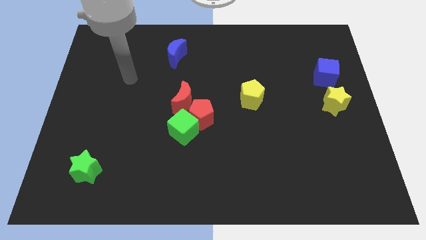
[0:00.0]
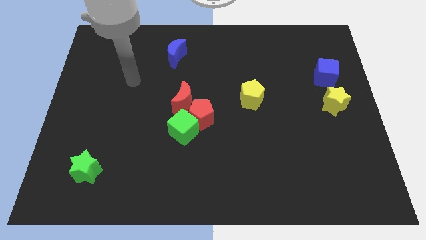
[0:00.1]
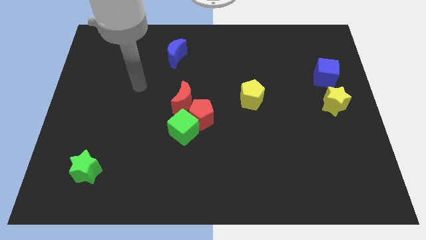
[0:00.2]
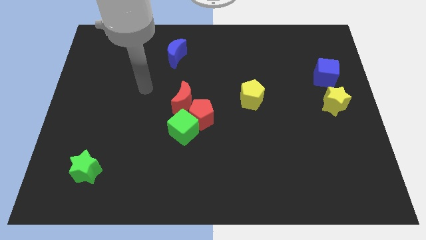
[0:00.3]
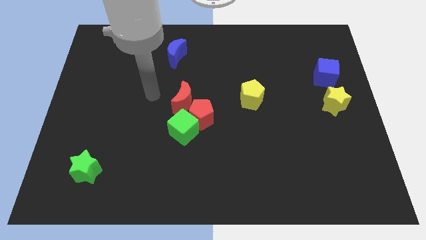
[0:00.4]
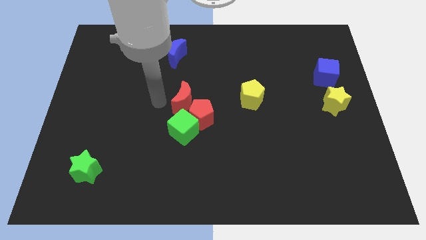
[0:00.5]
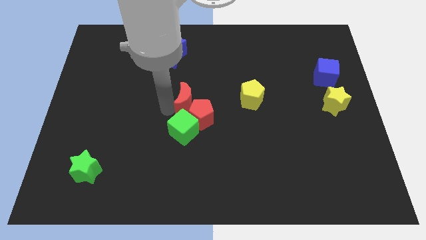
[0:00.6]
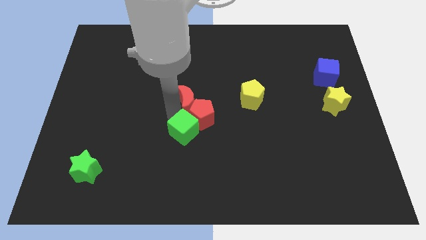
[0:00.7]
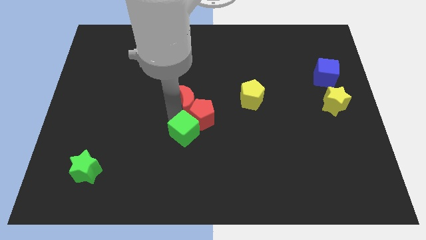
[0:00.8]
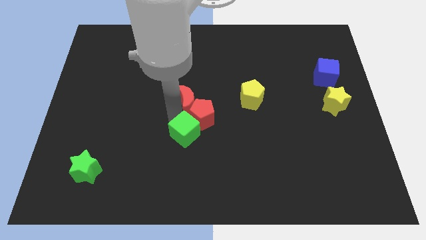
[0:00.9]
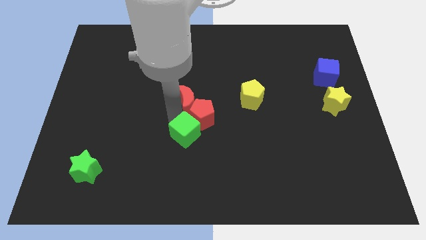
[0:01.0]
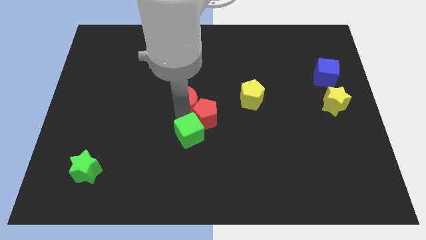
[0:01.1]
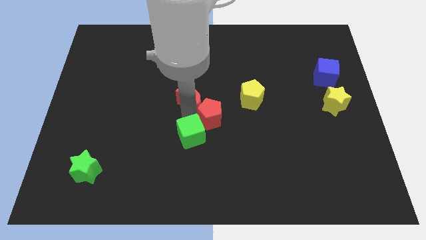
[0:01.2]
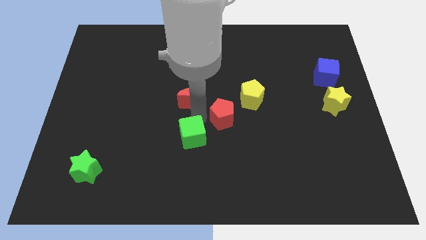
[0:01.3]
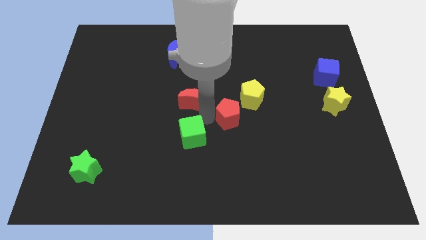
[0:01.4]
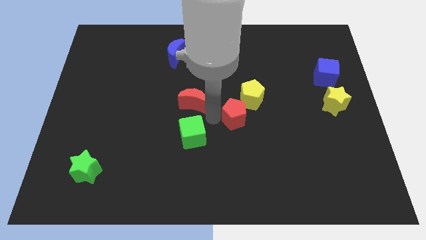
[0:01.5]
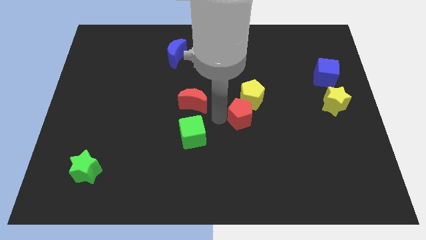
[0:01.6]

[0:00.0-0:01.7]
pull the red pentagon apart from the green cube and red moon

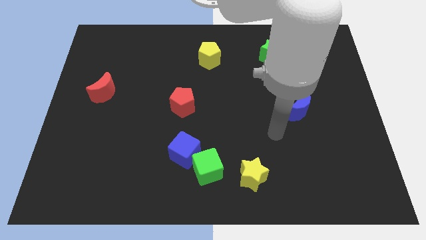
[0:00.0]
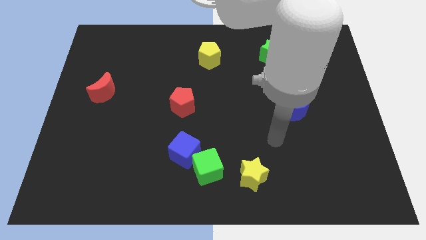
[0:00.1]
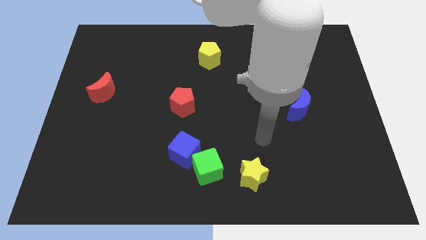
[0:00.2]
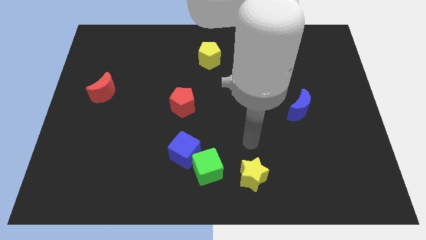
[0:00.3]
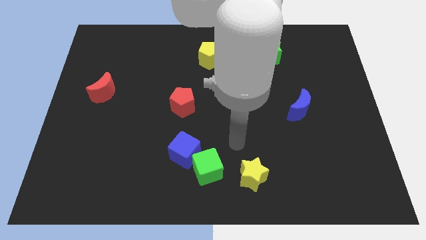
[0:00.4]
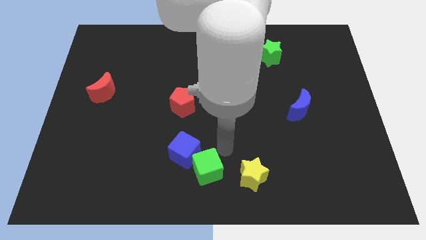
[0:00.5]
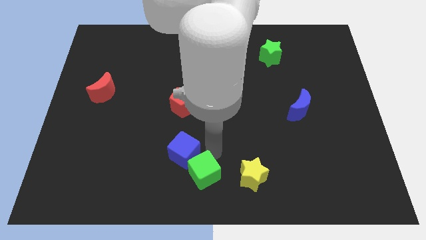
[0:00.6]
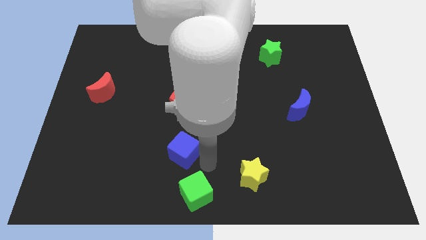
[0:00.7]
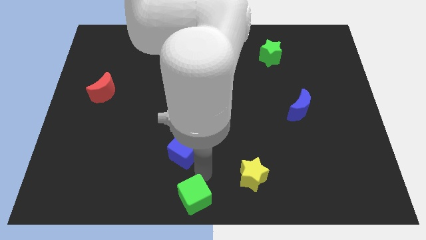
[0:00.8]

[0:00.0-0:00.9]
pull the blue cube apart from the green cube

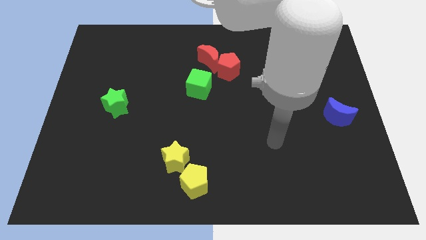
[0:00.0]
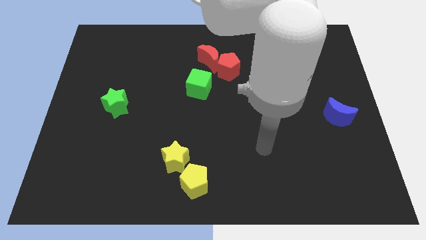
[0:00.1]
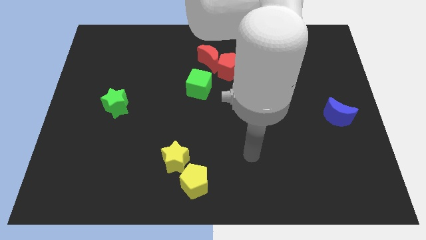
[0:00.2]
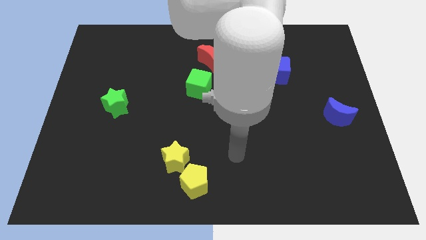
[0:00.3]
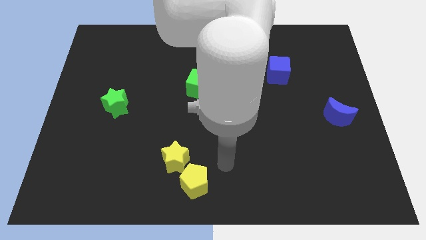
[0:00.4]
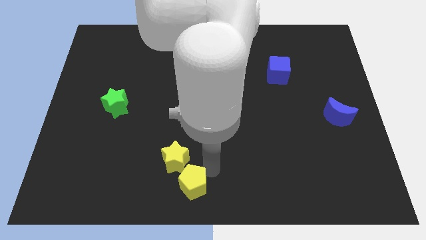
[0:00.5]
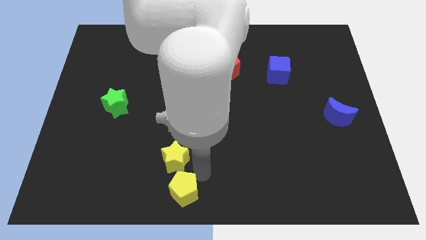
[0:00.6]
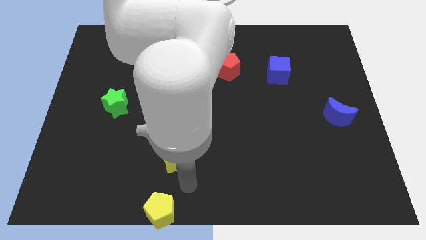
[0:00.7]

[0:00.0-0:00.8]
pull the yellow star apart from the yellow pentagon

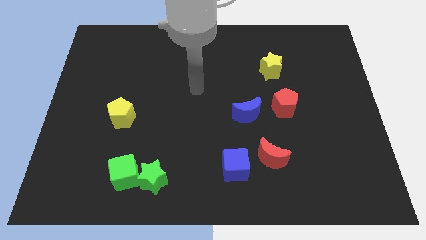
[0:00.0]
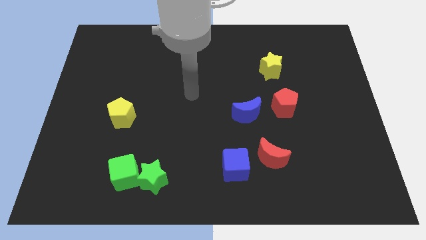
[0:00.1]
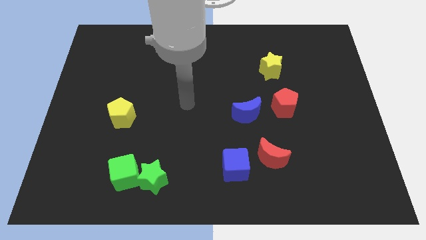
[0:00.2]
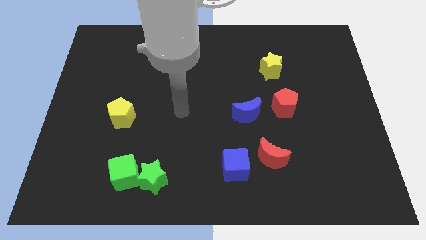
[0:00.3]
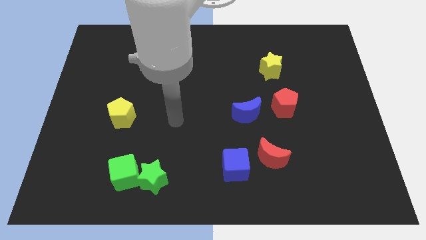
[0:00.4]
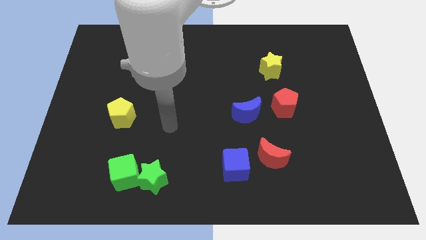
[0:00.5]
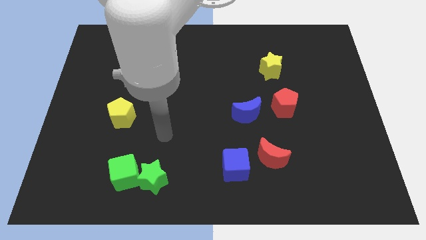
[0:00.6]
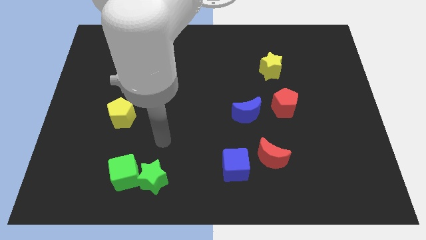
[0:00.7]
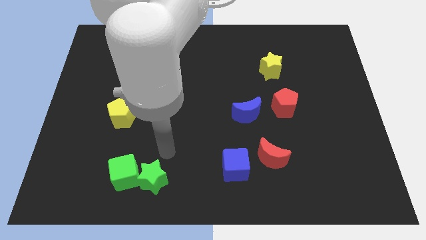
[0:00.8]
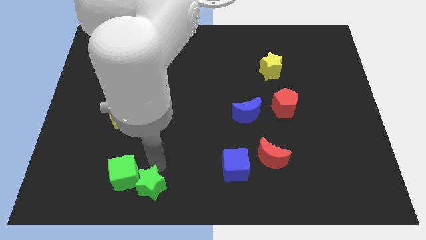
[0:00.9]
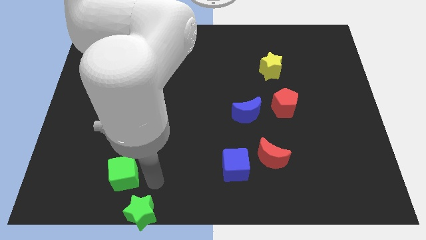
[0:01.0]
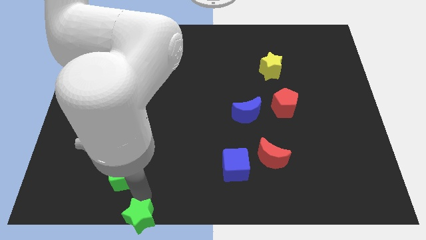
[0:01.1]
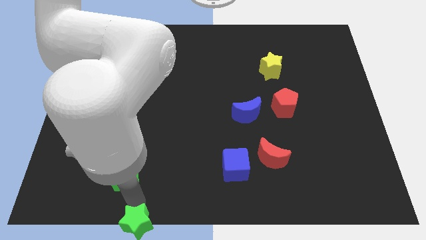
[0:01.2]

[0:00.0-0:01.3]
pull the green cube apart from the green star

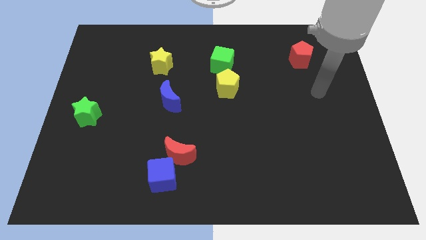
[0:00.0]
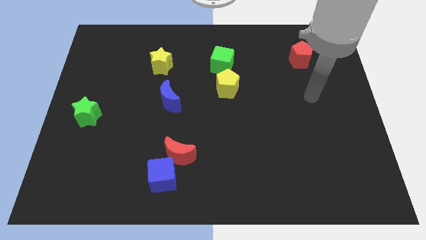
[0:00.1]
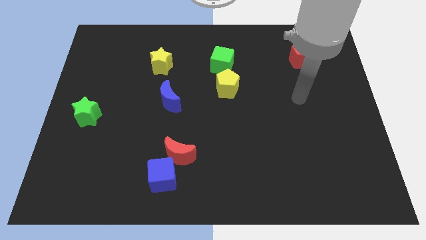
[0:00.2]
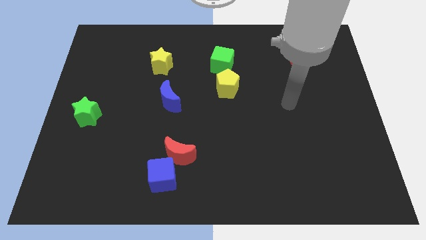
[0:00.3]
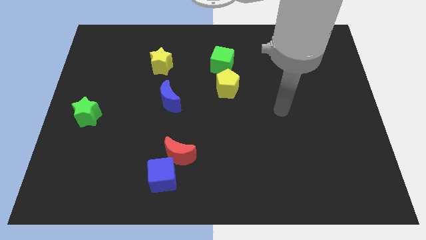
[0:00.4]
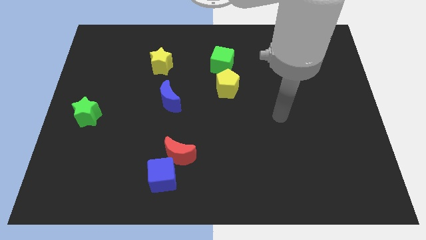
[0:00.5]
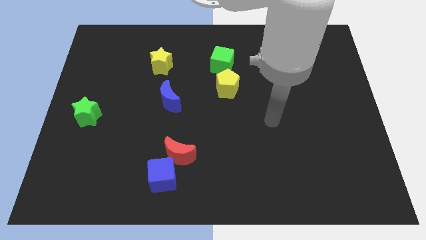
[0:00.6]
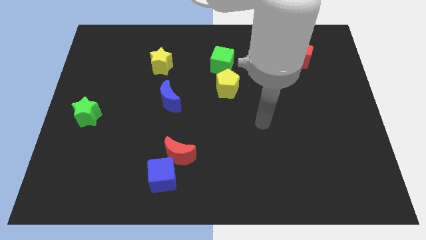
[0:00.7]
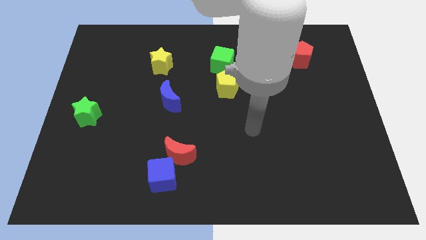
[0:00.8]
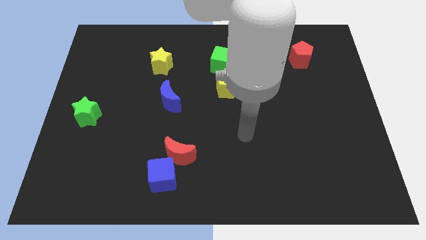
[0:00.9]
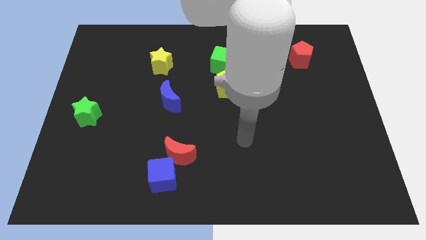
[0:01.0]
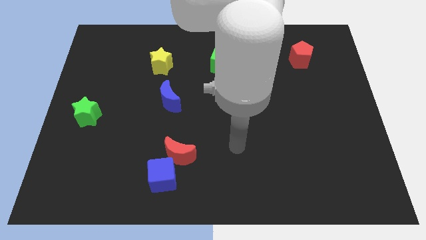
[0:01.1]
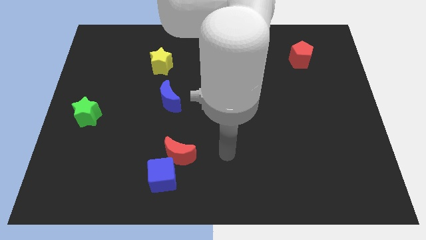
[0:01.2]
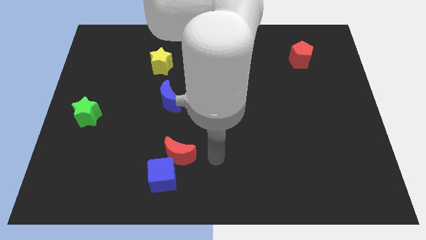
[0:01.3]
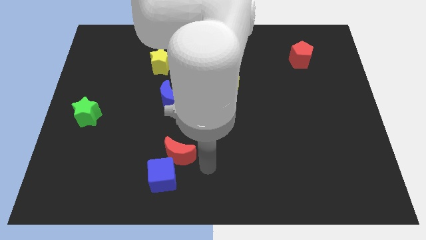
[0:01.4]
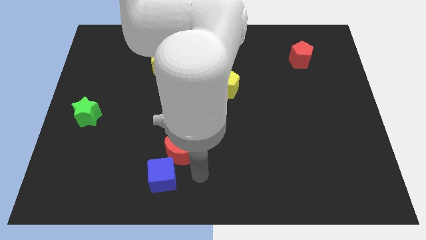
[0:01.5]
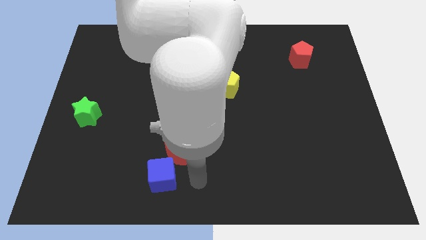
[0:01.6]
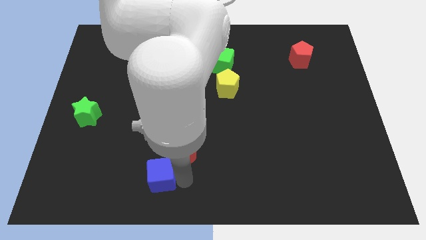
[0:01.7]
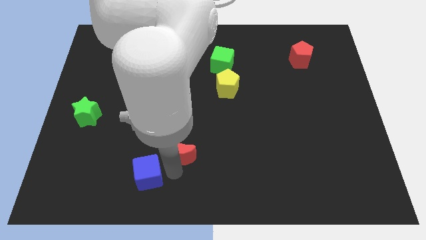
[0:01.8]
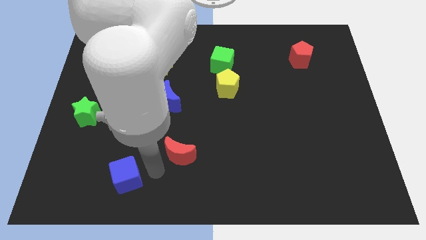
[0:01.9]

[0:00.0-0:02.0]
separate the red moon from the blue cube

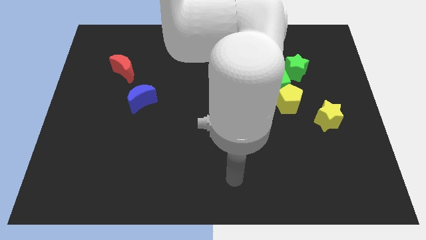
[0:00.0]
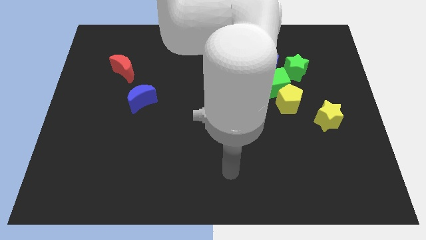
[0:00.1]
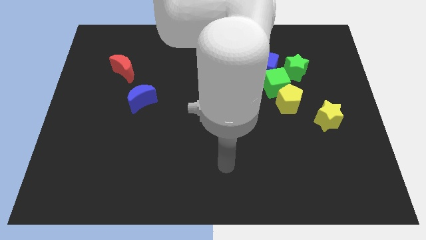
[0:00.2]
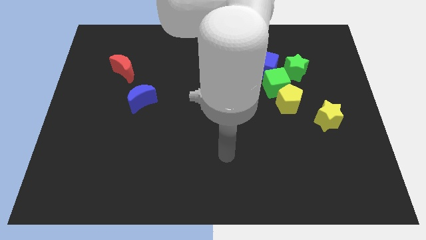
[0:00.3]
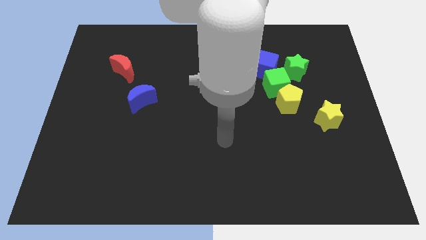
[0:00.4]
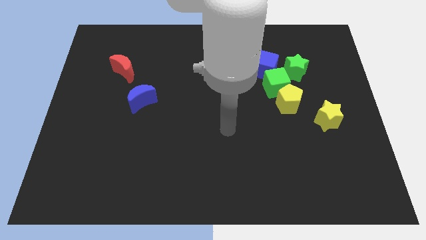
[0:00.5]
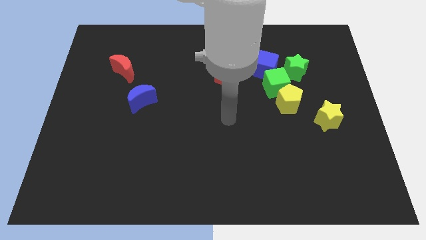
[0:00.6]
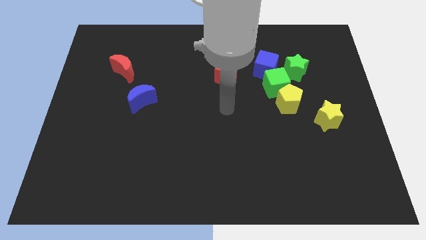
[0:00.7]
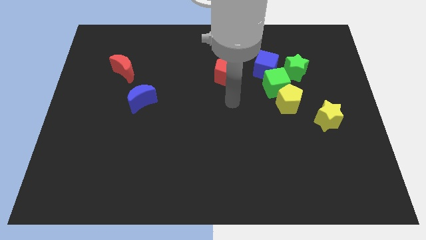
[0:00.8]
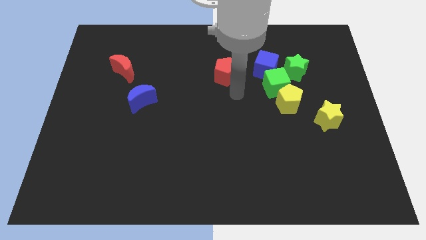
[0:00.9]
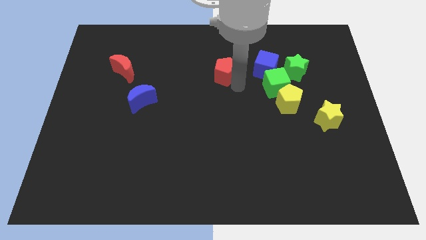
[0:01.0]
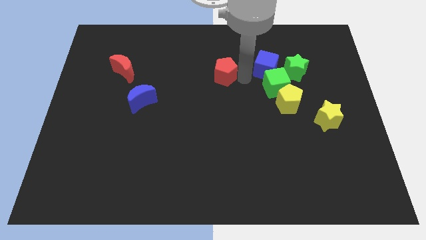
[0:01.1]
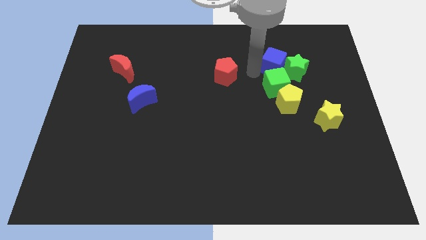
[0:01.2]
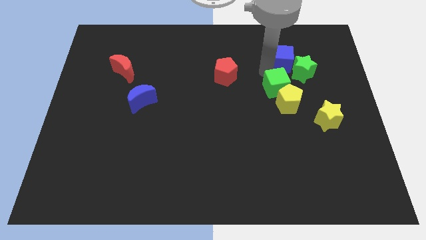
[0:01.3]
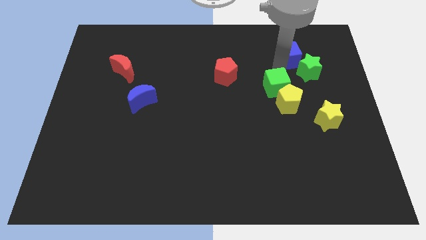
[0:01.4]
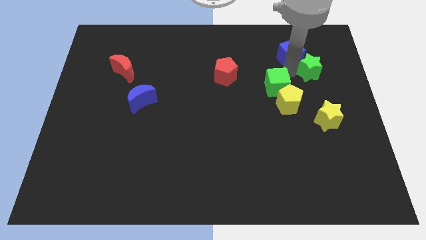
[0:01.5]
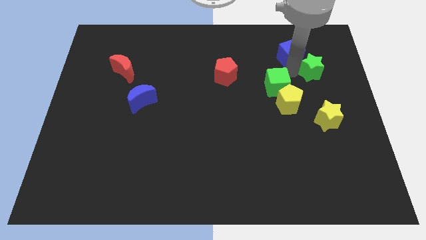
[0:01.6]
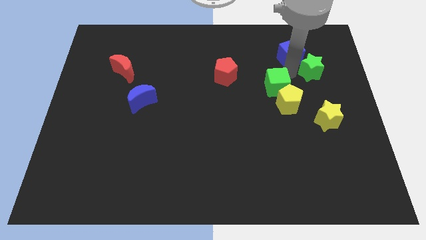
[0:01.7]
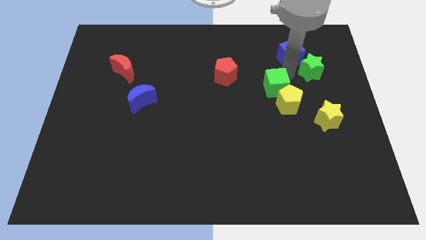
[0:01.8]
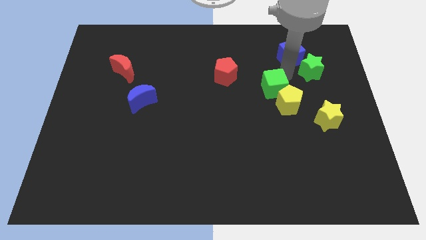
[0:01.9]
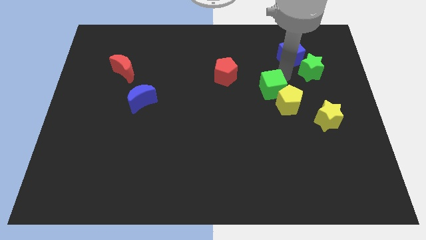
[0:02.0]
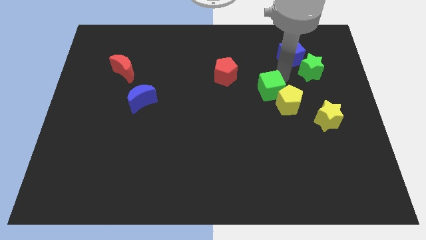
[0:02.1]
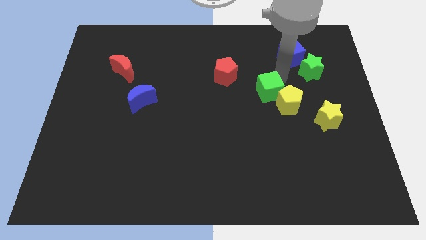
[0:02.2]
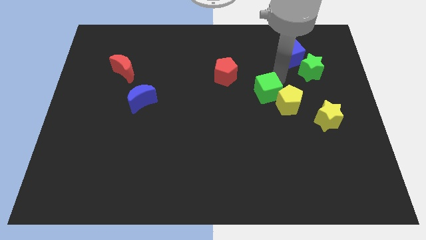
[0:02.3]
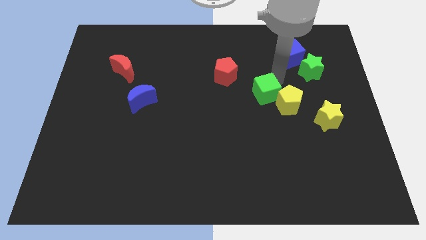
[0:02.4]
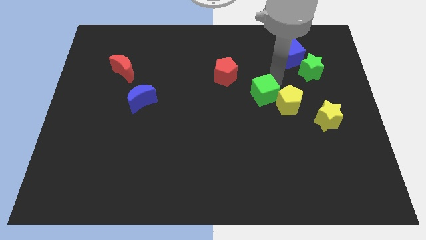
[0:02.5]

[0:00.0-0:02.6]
separate the green cube from the group of blocks
